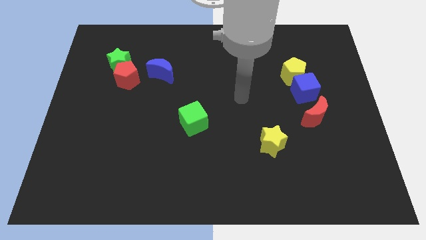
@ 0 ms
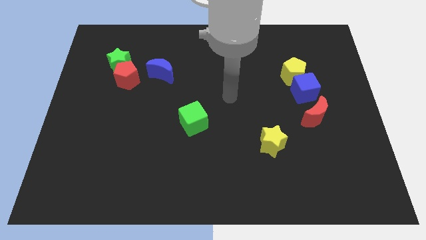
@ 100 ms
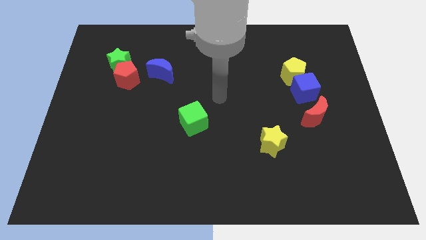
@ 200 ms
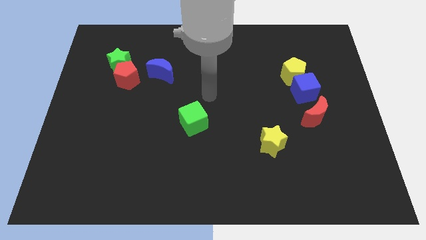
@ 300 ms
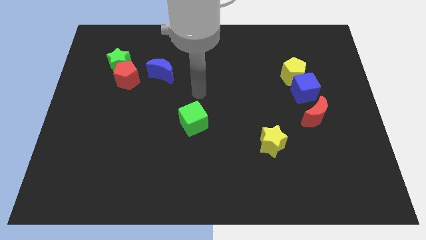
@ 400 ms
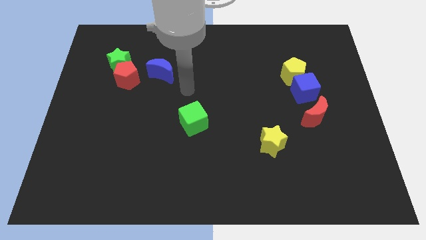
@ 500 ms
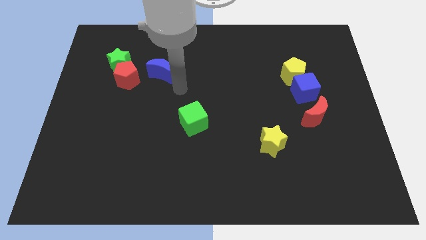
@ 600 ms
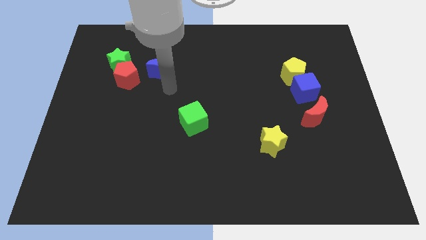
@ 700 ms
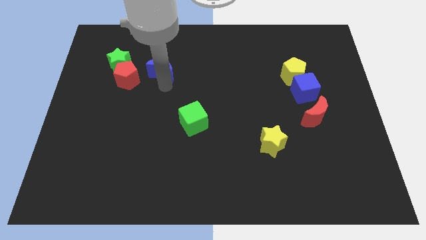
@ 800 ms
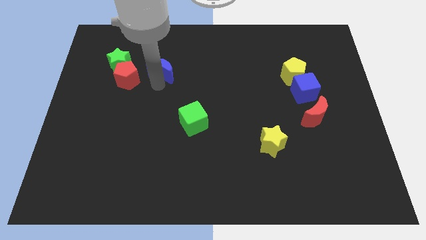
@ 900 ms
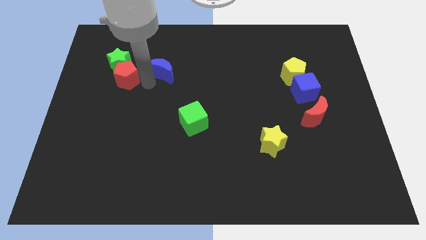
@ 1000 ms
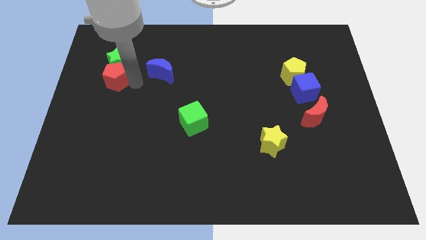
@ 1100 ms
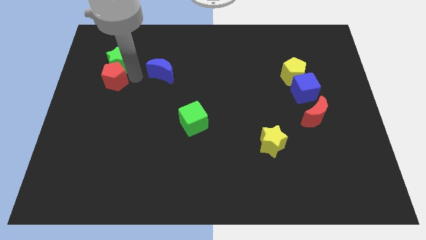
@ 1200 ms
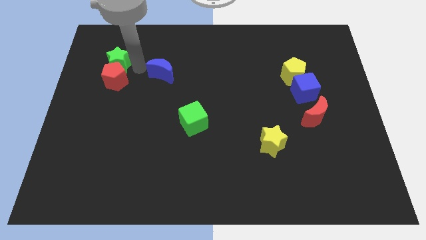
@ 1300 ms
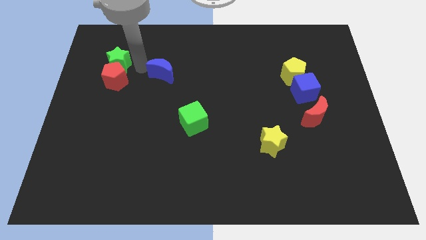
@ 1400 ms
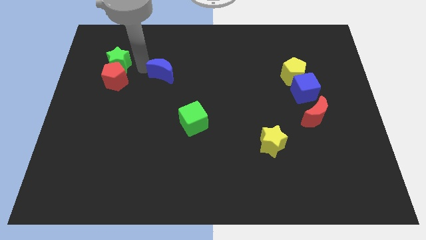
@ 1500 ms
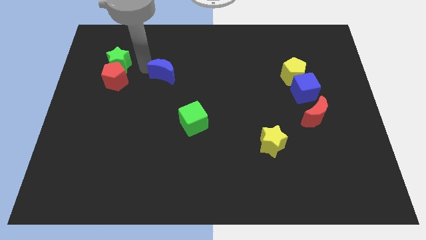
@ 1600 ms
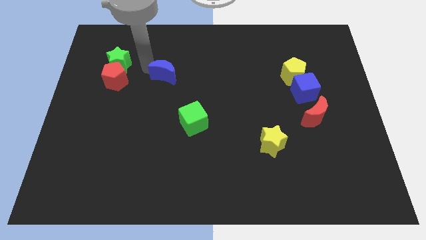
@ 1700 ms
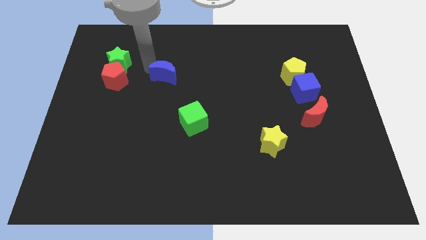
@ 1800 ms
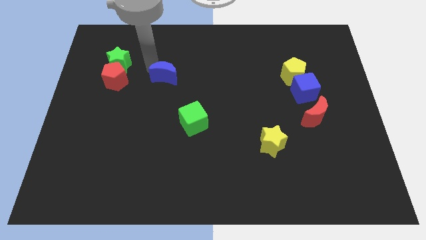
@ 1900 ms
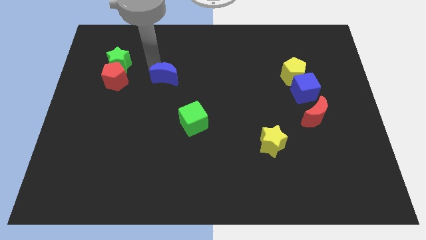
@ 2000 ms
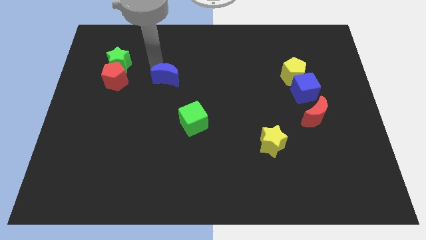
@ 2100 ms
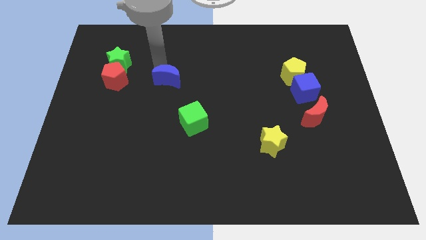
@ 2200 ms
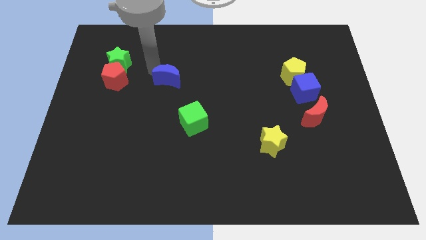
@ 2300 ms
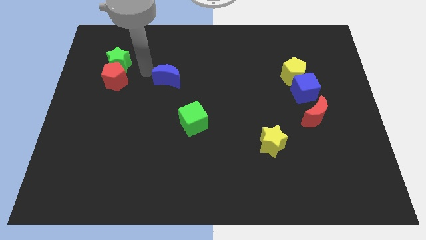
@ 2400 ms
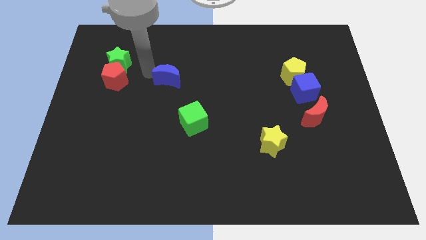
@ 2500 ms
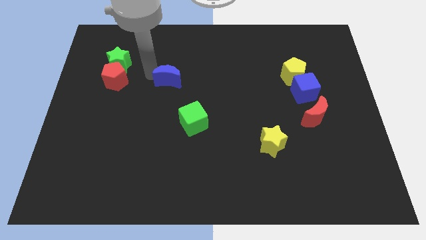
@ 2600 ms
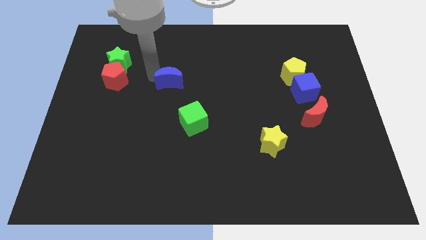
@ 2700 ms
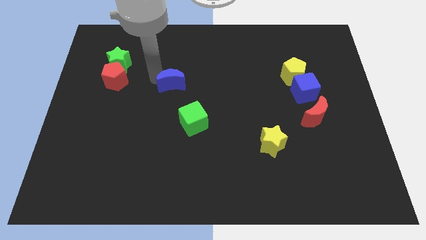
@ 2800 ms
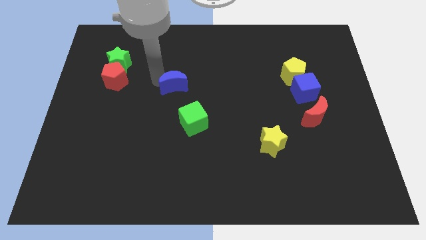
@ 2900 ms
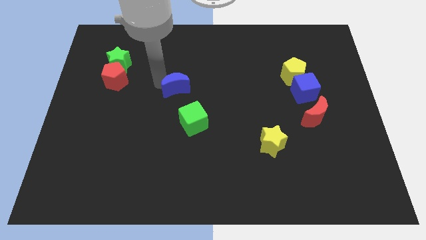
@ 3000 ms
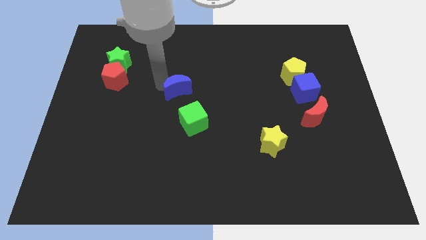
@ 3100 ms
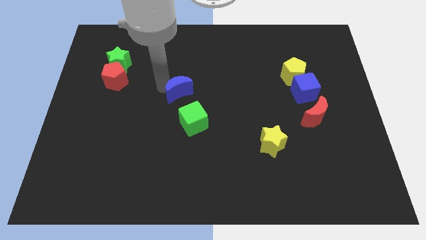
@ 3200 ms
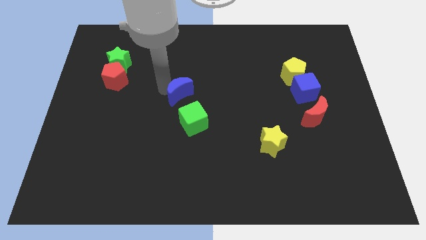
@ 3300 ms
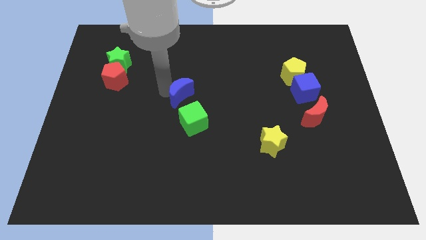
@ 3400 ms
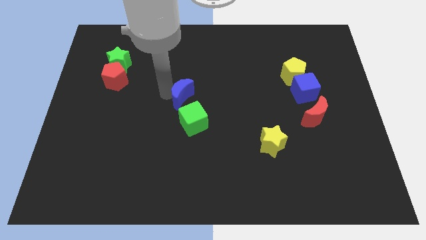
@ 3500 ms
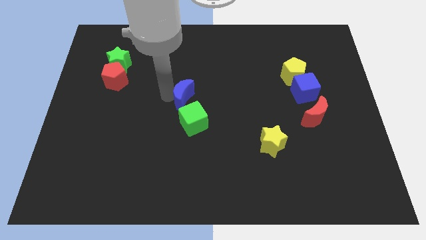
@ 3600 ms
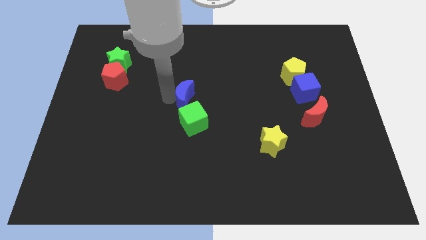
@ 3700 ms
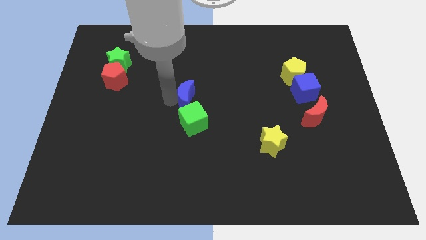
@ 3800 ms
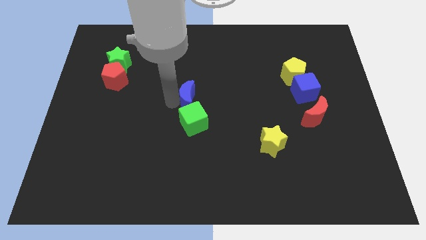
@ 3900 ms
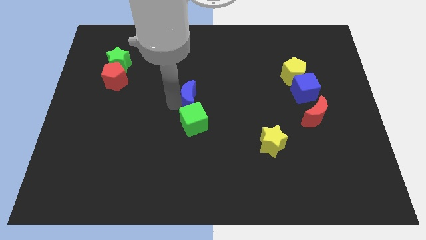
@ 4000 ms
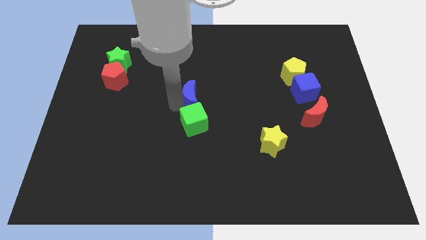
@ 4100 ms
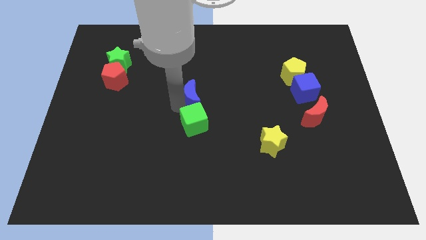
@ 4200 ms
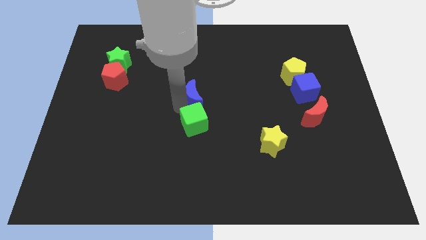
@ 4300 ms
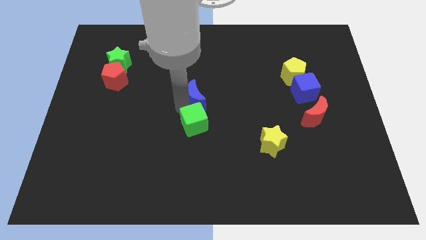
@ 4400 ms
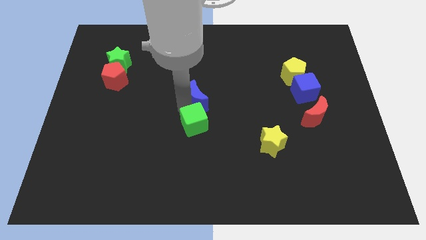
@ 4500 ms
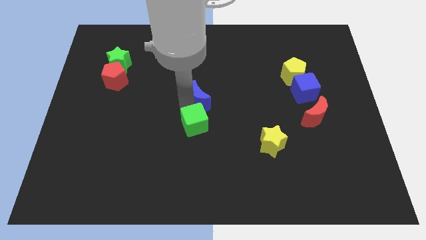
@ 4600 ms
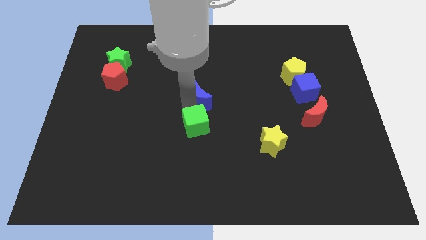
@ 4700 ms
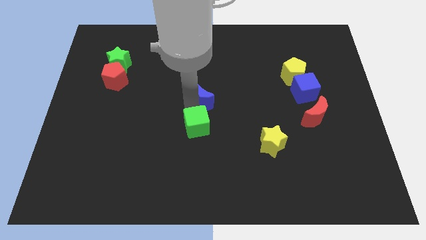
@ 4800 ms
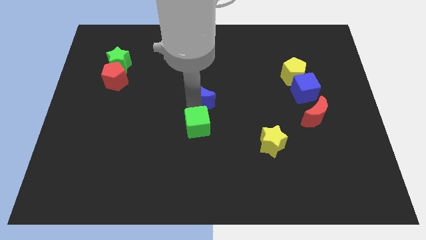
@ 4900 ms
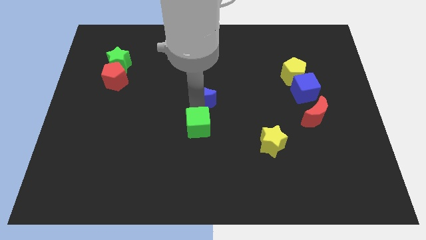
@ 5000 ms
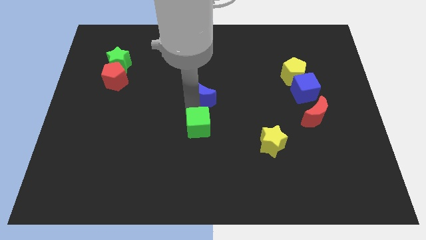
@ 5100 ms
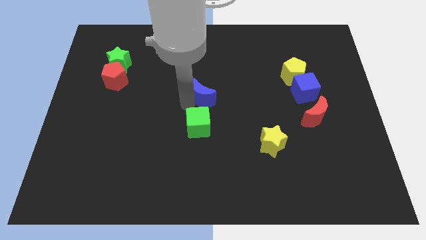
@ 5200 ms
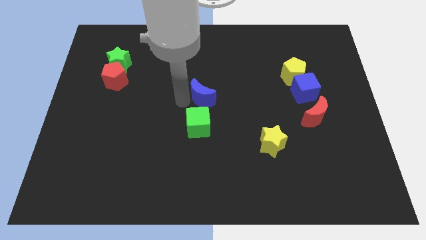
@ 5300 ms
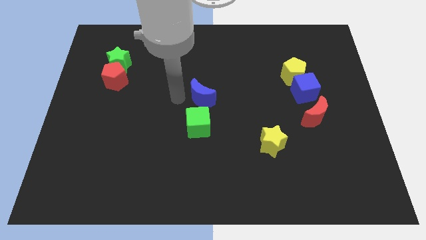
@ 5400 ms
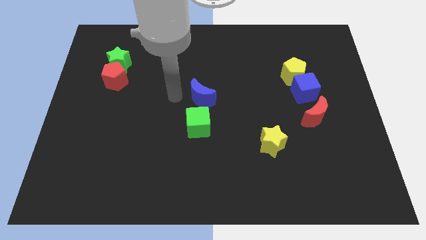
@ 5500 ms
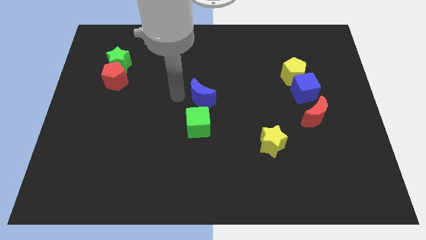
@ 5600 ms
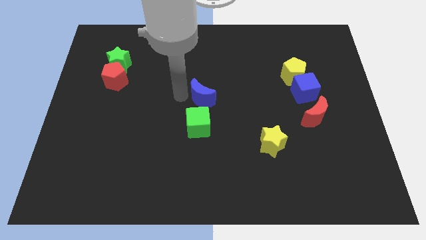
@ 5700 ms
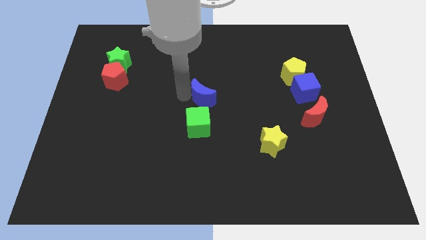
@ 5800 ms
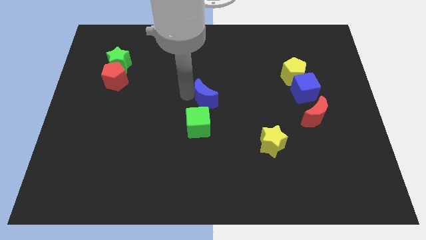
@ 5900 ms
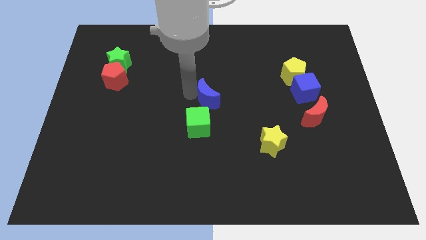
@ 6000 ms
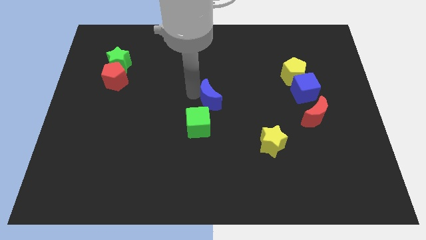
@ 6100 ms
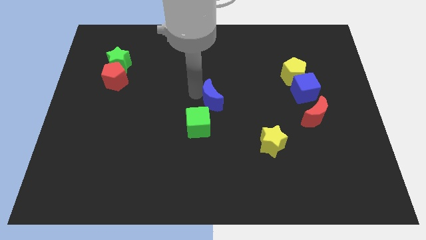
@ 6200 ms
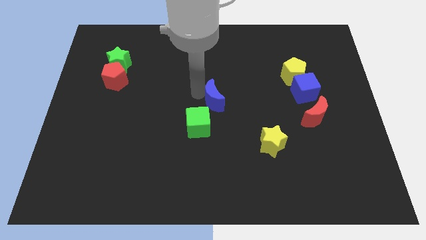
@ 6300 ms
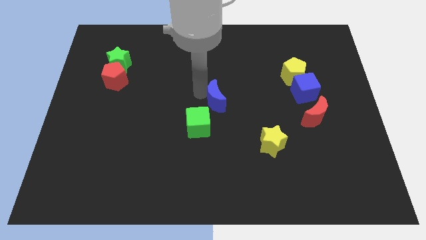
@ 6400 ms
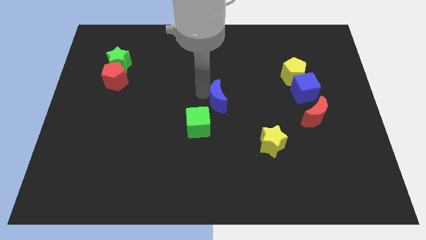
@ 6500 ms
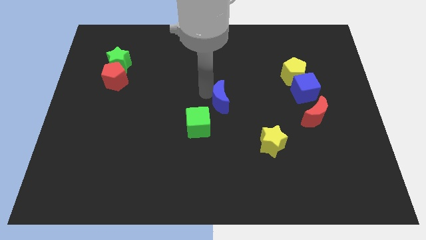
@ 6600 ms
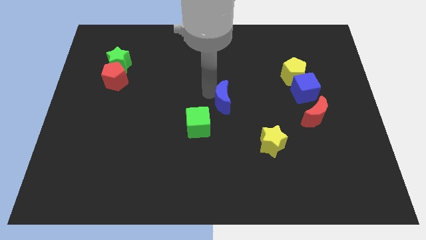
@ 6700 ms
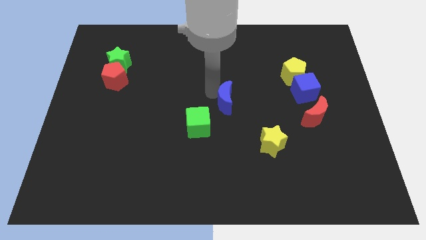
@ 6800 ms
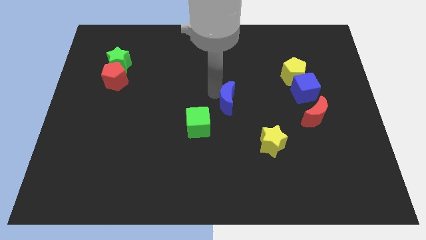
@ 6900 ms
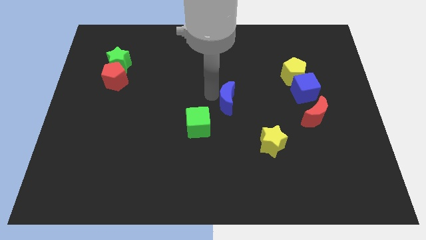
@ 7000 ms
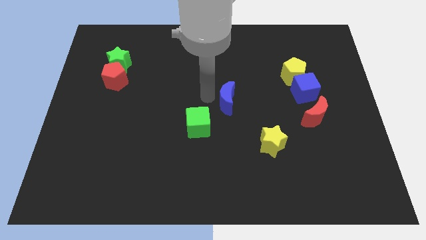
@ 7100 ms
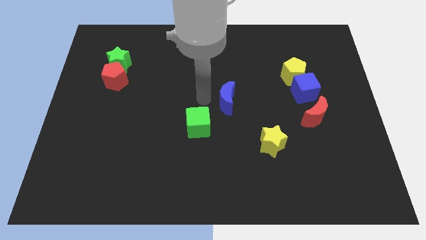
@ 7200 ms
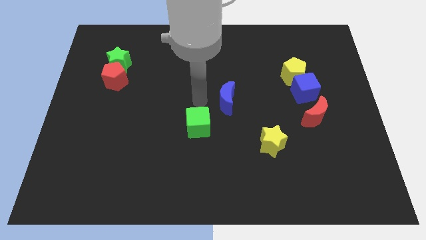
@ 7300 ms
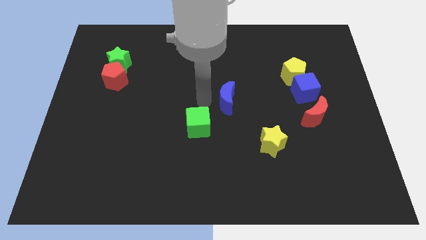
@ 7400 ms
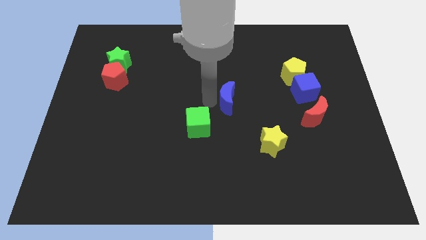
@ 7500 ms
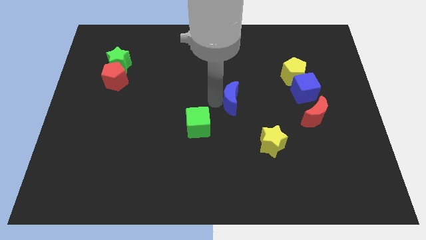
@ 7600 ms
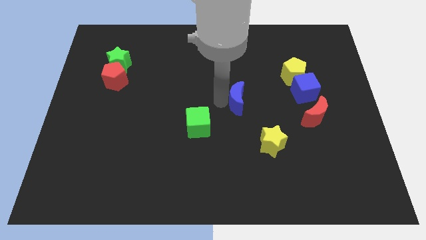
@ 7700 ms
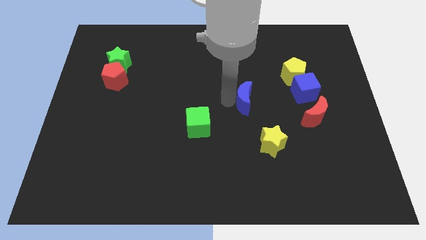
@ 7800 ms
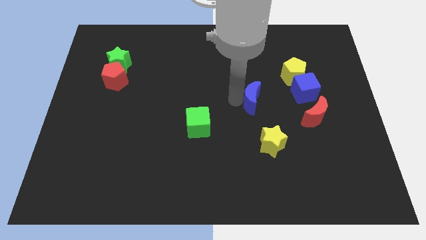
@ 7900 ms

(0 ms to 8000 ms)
slide the blue moon to the top side of the yellow star
